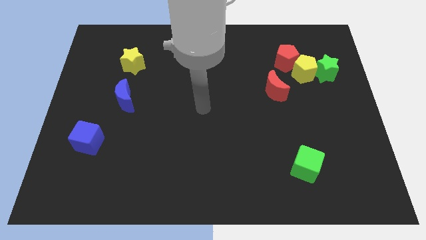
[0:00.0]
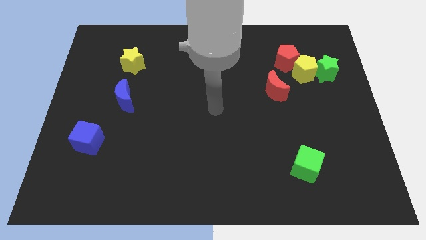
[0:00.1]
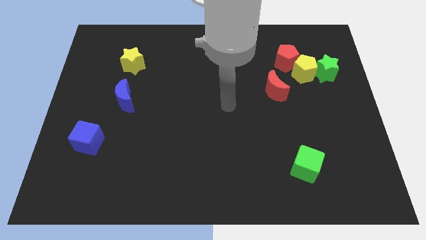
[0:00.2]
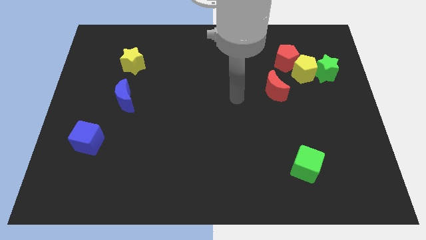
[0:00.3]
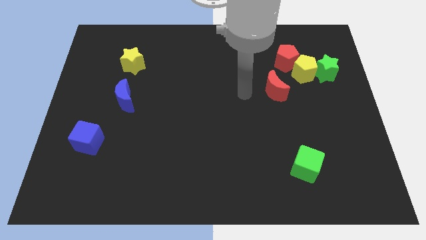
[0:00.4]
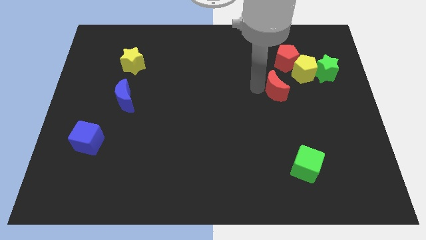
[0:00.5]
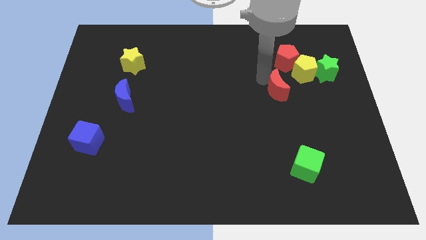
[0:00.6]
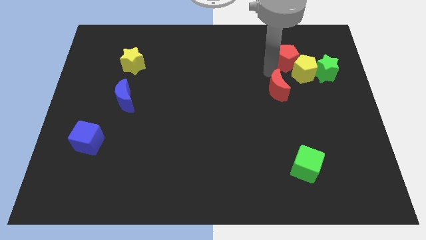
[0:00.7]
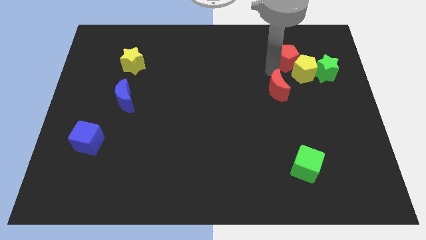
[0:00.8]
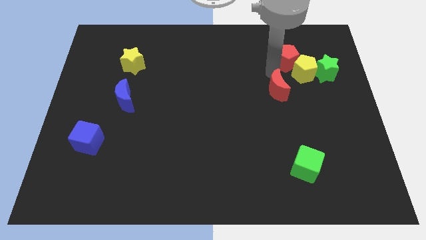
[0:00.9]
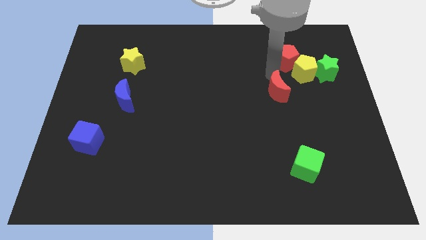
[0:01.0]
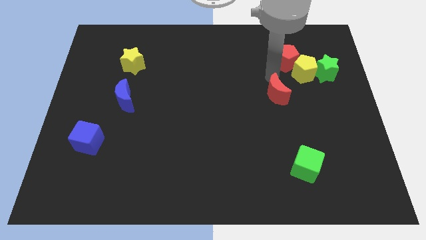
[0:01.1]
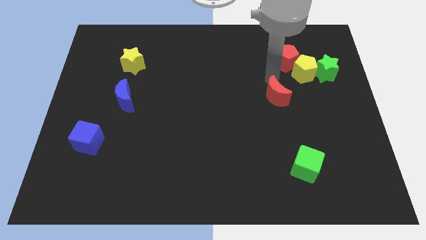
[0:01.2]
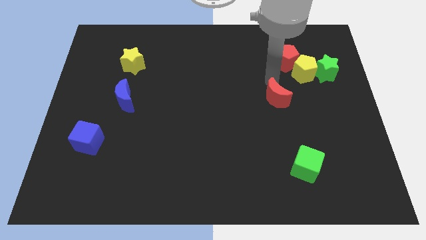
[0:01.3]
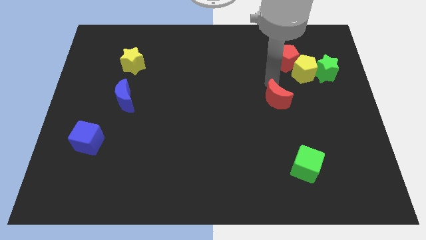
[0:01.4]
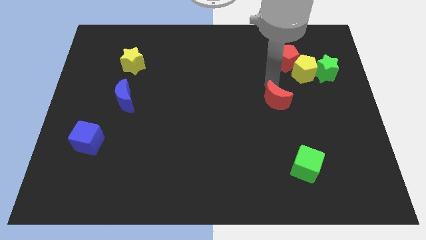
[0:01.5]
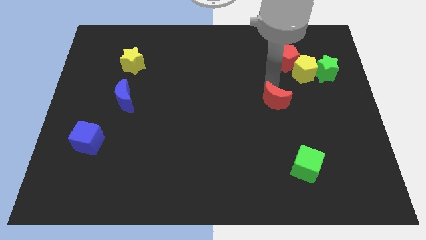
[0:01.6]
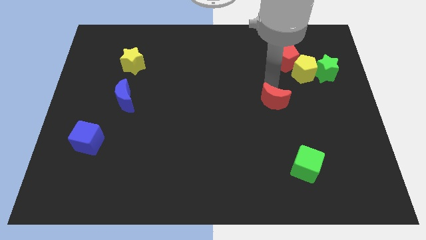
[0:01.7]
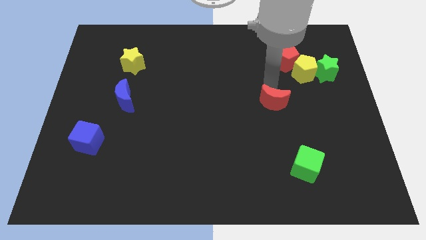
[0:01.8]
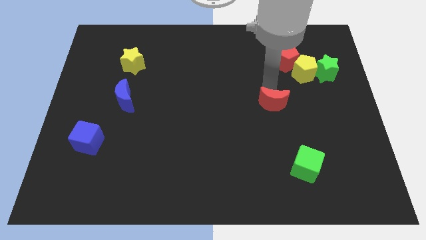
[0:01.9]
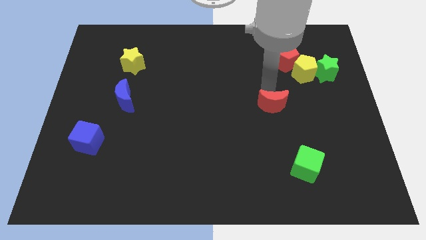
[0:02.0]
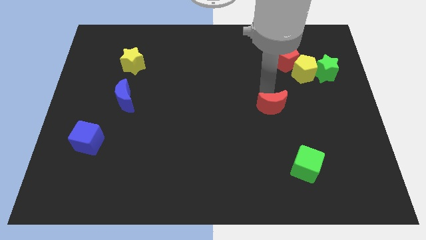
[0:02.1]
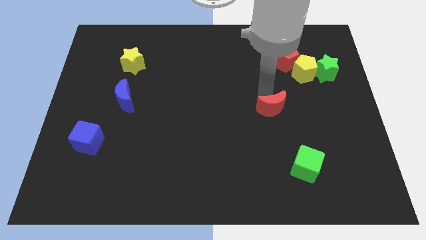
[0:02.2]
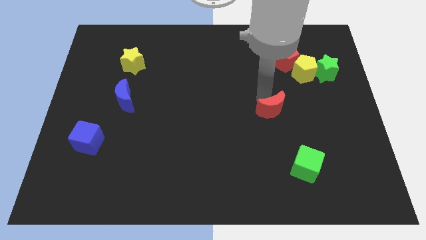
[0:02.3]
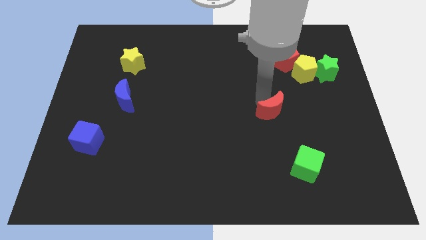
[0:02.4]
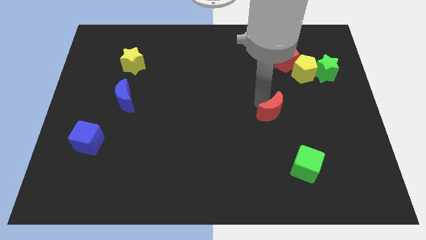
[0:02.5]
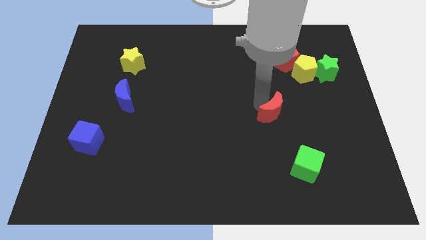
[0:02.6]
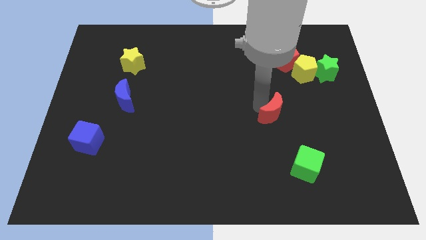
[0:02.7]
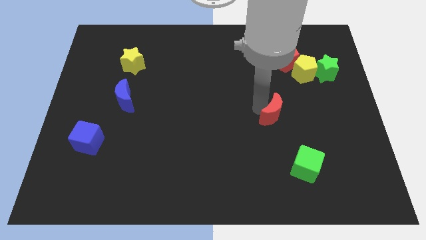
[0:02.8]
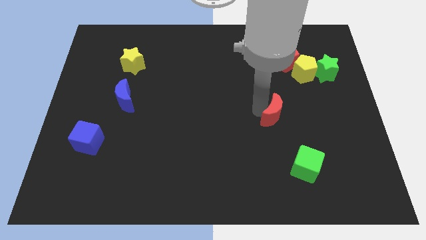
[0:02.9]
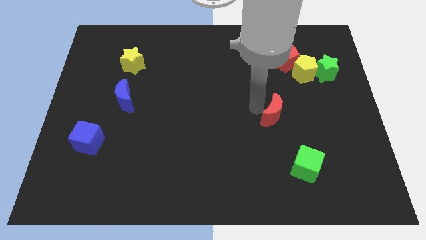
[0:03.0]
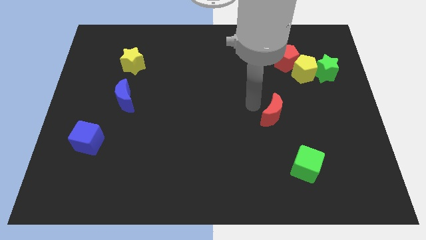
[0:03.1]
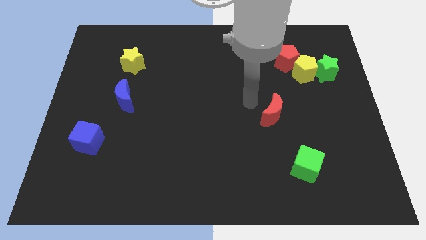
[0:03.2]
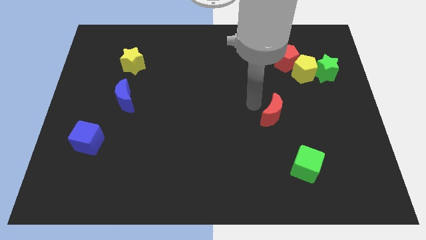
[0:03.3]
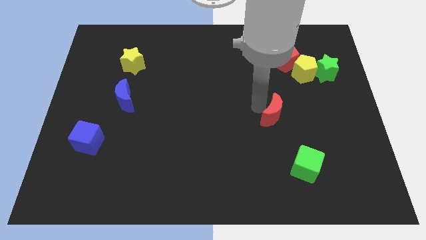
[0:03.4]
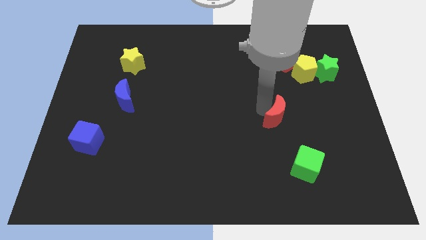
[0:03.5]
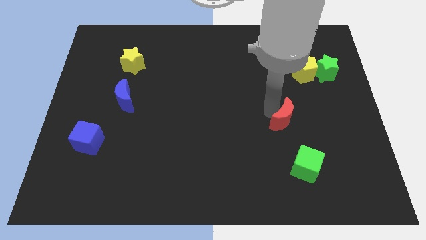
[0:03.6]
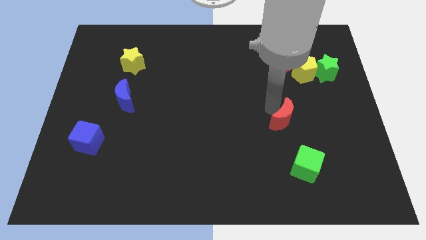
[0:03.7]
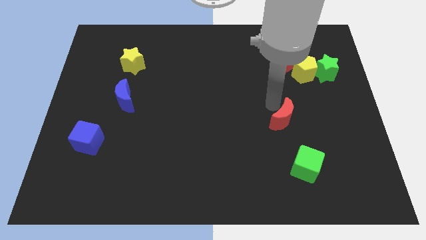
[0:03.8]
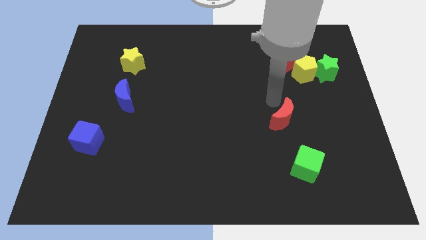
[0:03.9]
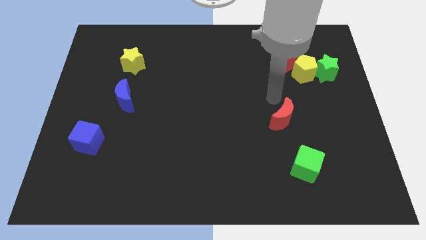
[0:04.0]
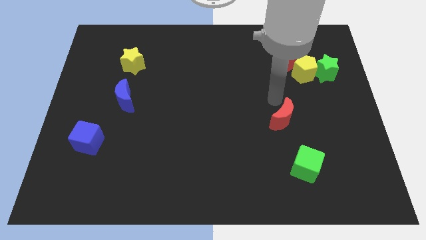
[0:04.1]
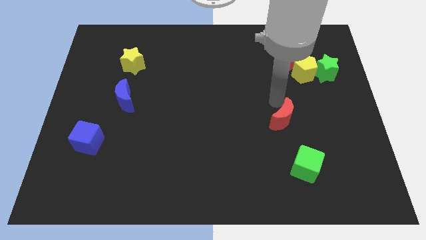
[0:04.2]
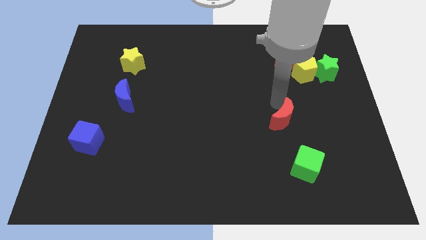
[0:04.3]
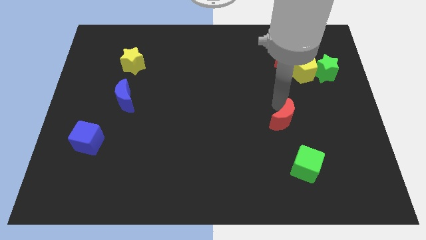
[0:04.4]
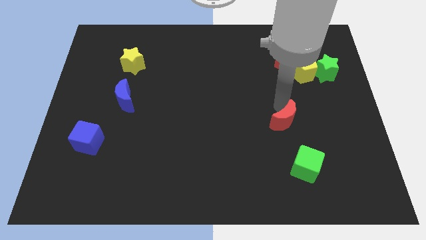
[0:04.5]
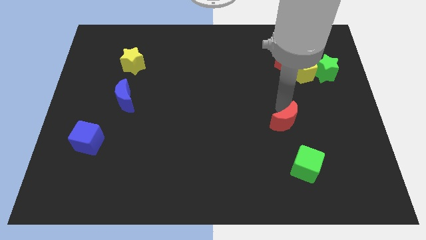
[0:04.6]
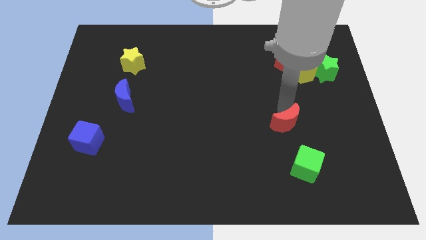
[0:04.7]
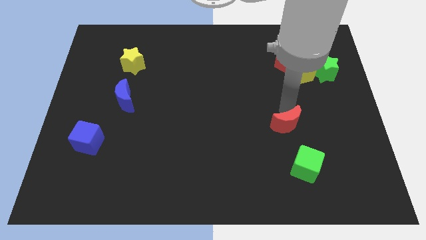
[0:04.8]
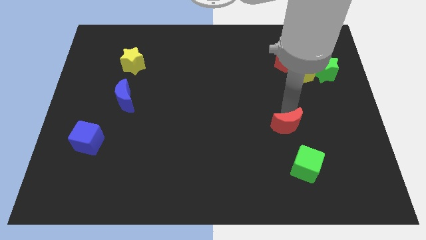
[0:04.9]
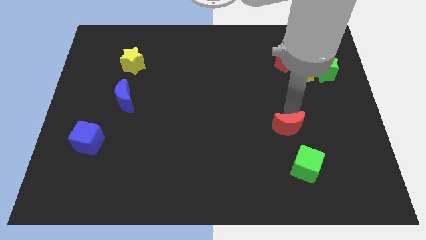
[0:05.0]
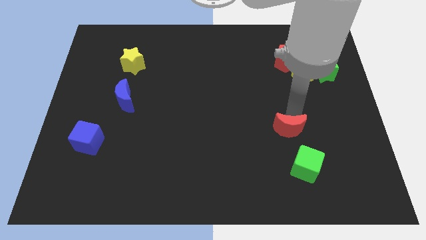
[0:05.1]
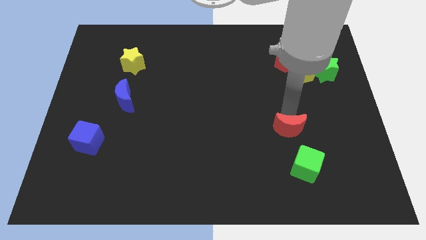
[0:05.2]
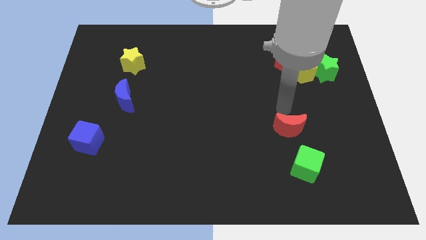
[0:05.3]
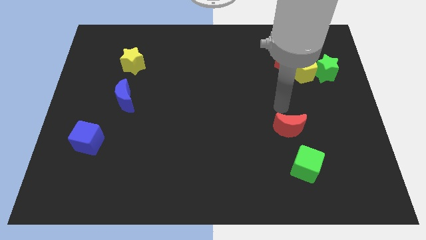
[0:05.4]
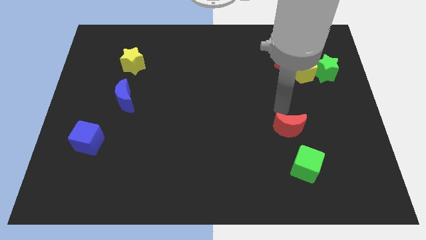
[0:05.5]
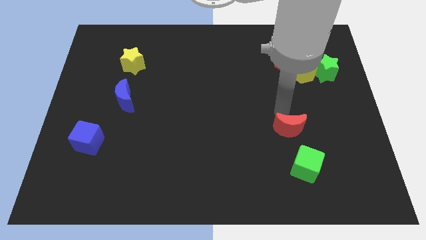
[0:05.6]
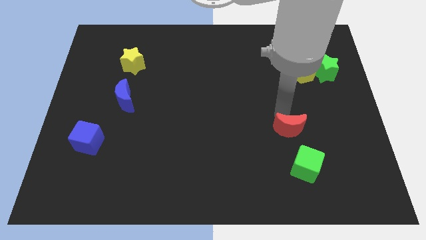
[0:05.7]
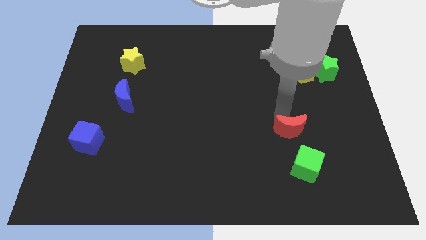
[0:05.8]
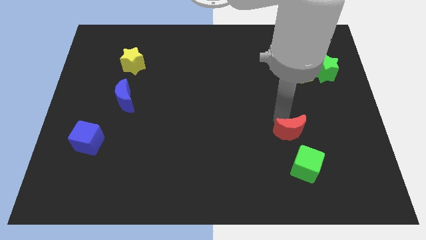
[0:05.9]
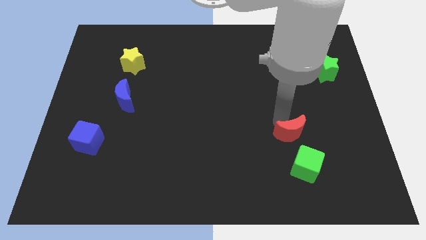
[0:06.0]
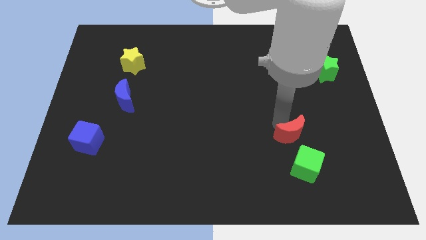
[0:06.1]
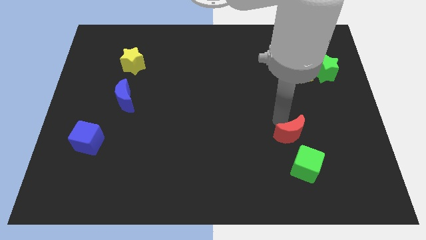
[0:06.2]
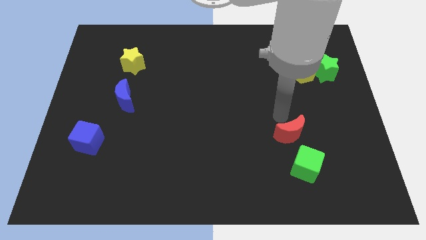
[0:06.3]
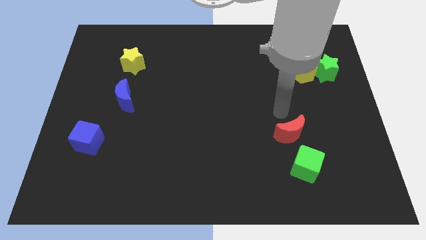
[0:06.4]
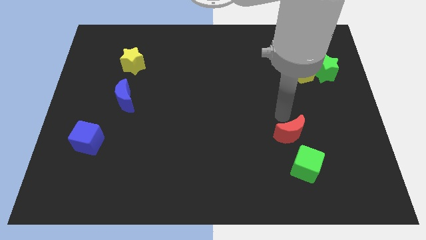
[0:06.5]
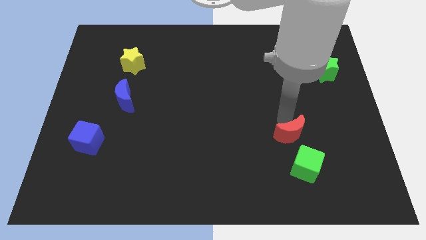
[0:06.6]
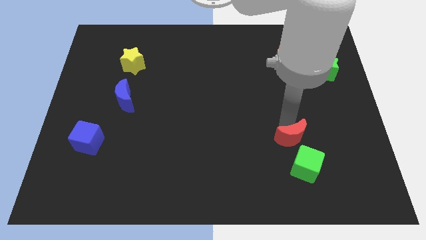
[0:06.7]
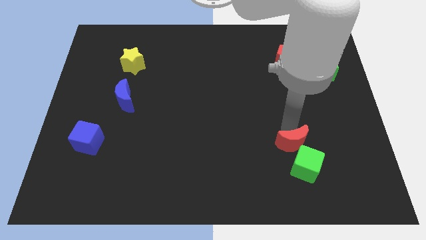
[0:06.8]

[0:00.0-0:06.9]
put the red moon towards the green cube

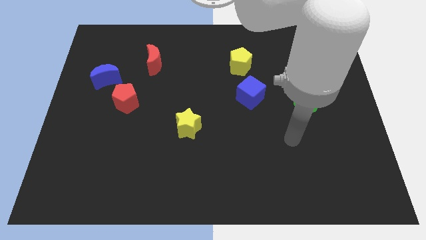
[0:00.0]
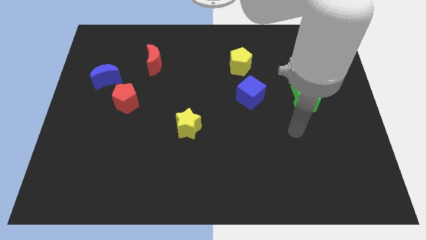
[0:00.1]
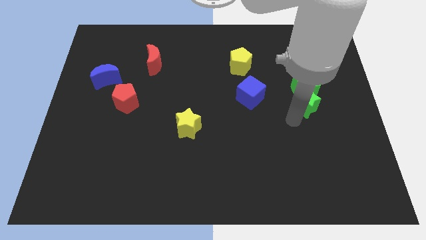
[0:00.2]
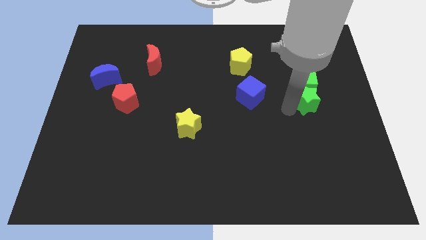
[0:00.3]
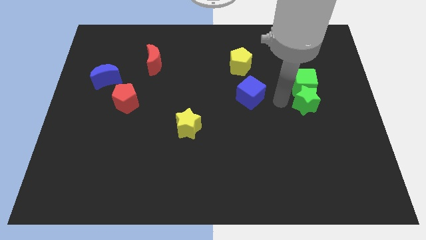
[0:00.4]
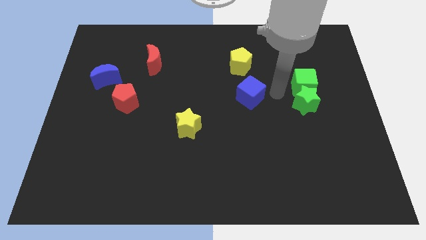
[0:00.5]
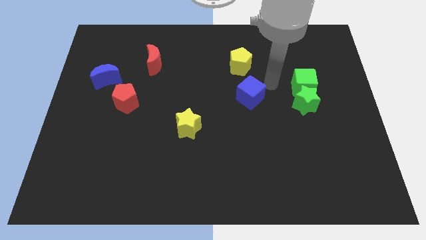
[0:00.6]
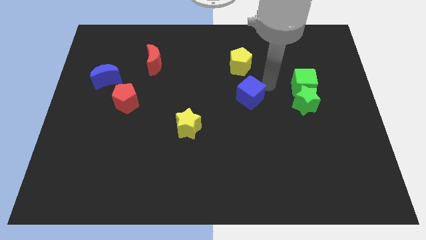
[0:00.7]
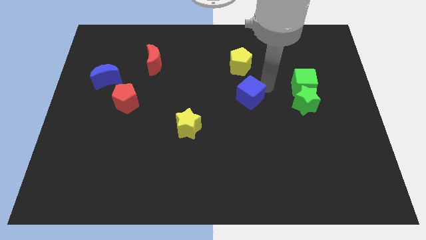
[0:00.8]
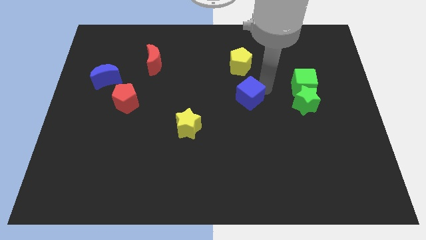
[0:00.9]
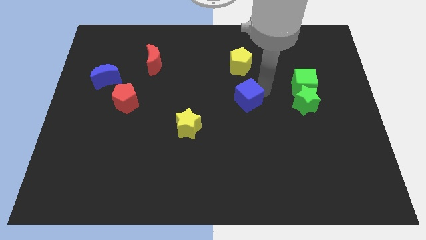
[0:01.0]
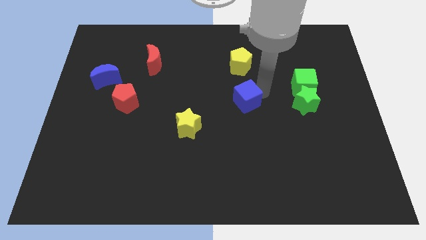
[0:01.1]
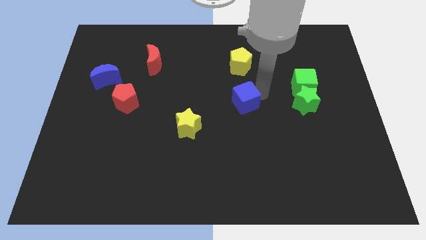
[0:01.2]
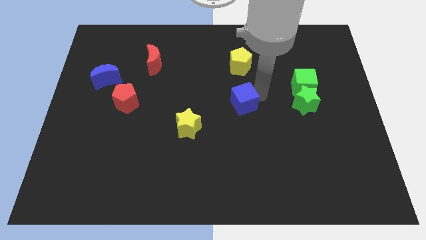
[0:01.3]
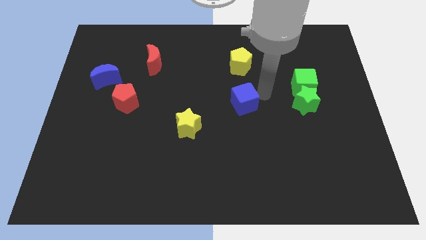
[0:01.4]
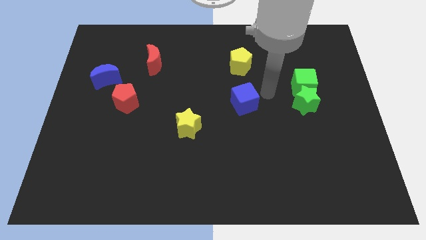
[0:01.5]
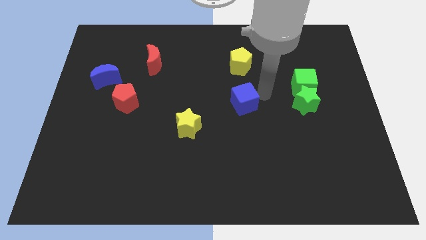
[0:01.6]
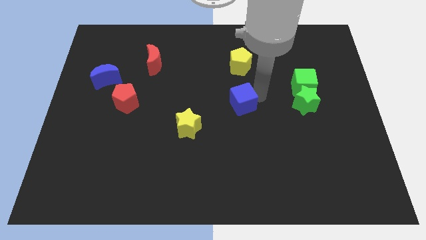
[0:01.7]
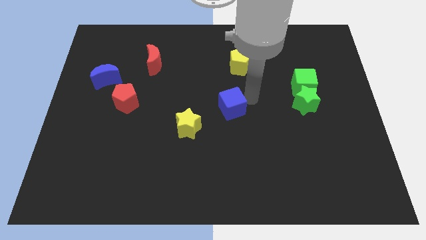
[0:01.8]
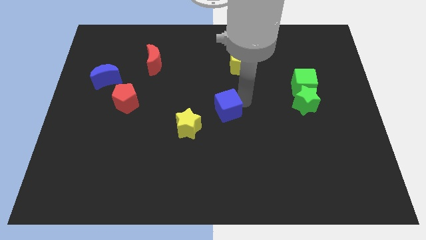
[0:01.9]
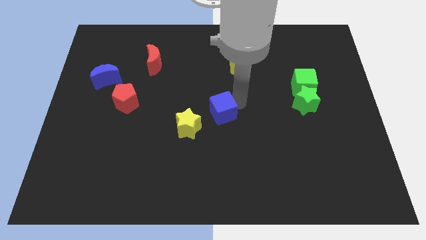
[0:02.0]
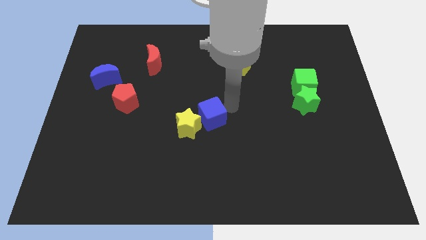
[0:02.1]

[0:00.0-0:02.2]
move the blue cube next to the yellow star
